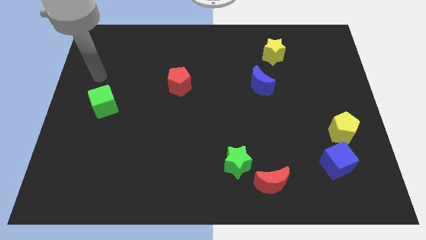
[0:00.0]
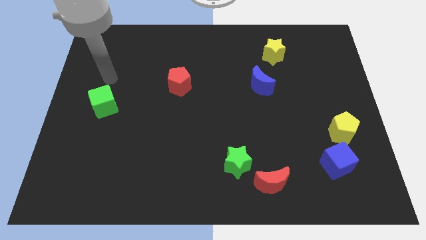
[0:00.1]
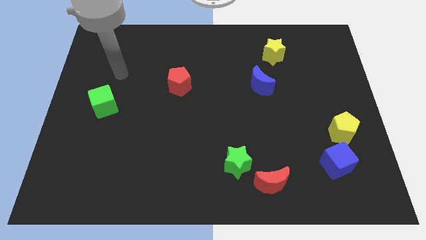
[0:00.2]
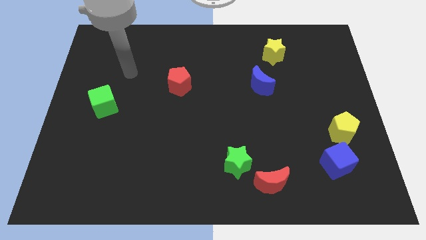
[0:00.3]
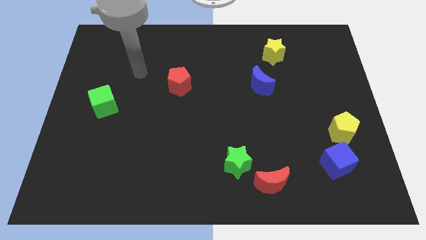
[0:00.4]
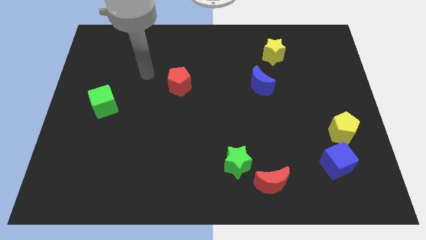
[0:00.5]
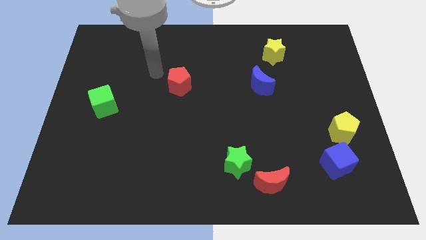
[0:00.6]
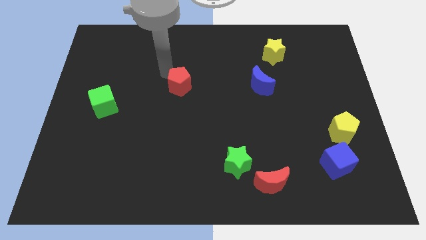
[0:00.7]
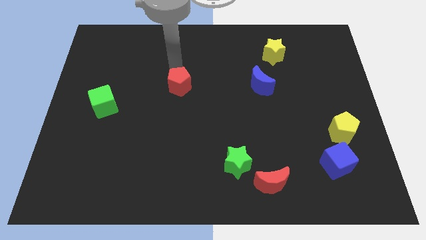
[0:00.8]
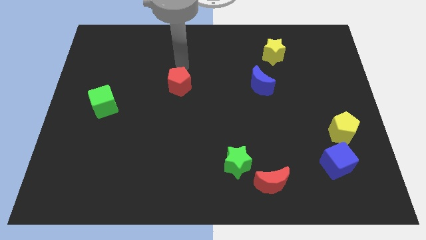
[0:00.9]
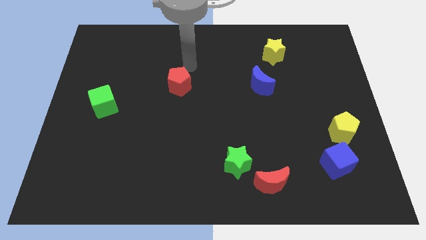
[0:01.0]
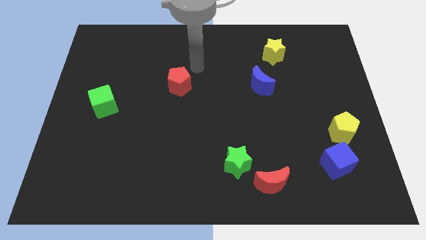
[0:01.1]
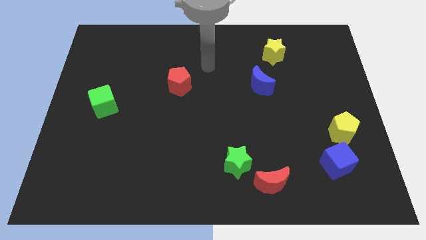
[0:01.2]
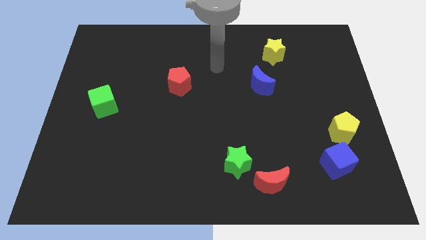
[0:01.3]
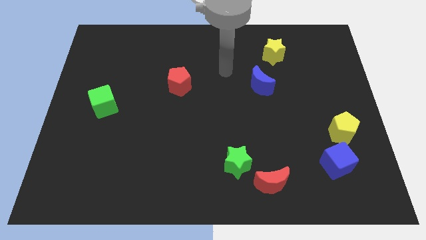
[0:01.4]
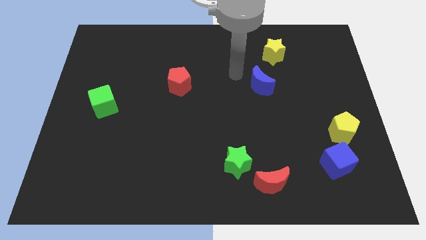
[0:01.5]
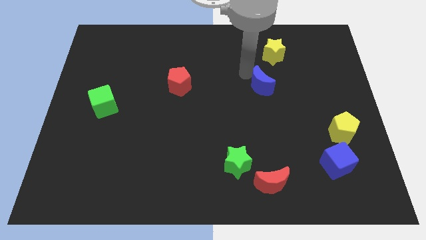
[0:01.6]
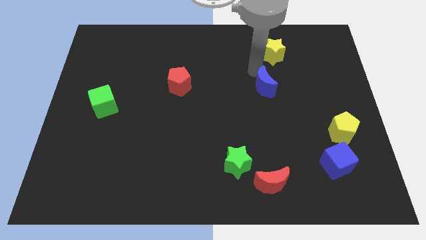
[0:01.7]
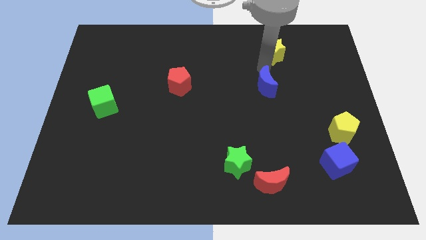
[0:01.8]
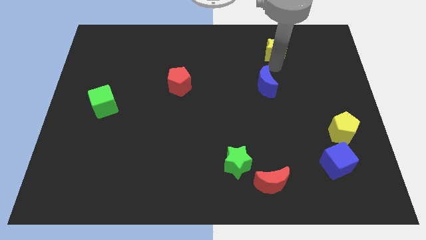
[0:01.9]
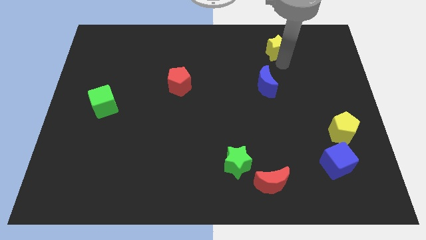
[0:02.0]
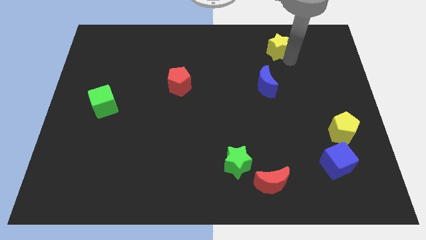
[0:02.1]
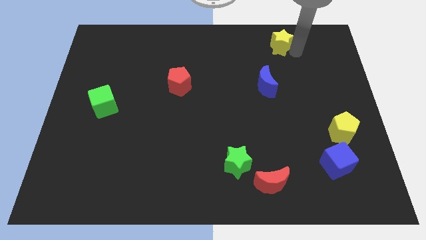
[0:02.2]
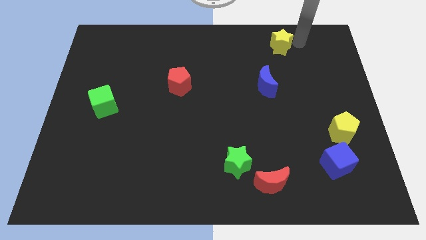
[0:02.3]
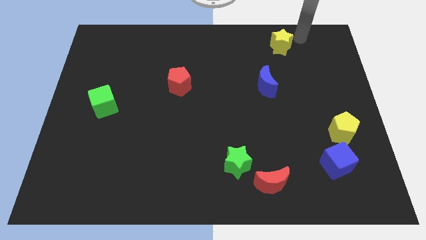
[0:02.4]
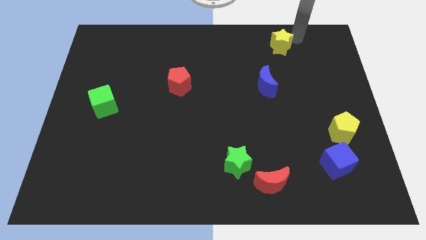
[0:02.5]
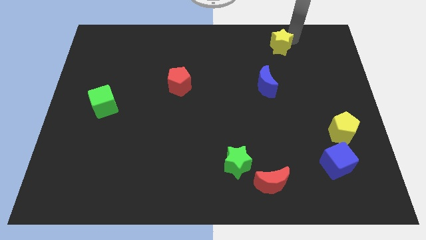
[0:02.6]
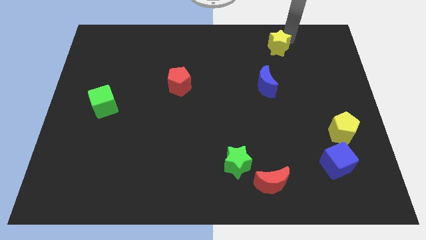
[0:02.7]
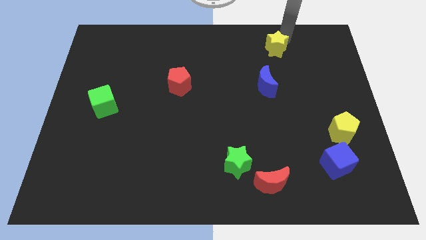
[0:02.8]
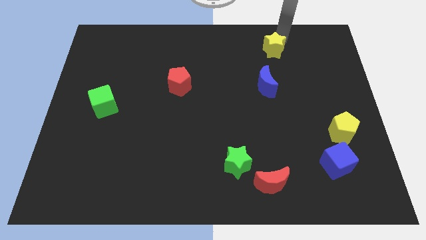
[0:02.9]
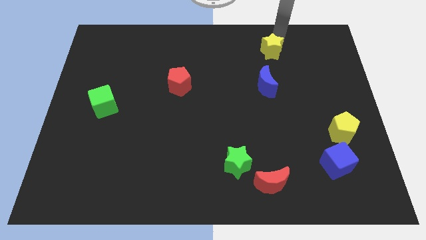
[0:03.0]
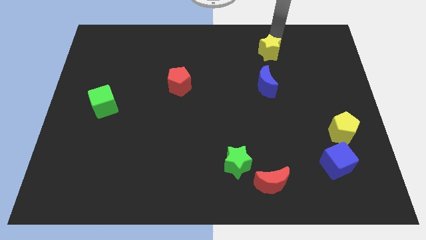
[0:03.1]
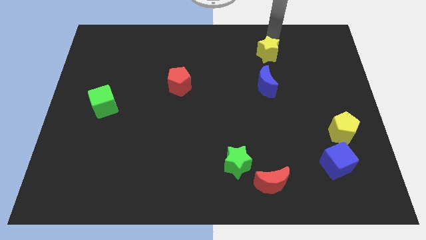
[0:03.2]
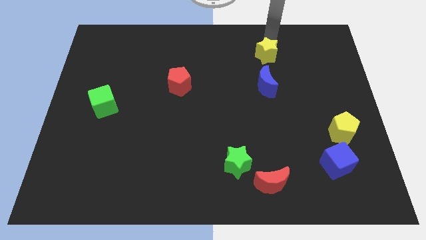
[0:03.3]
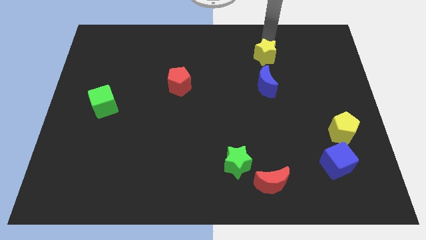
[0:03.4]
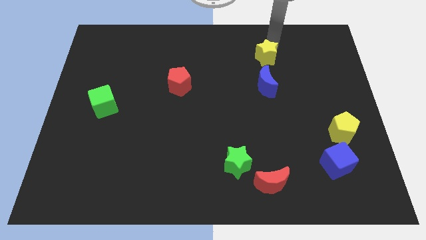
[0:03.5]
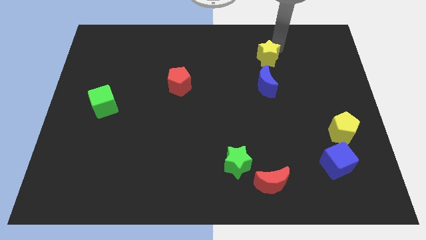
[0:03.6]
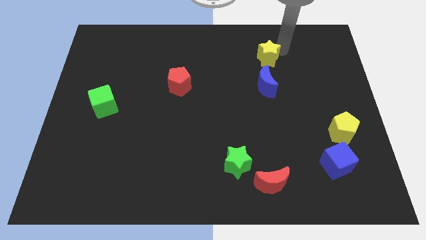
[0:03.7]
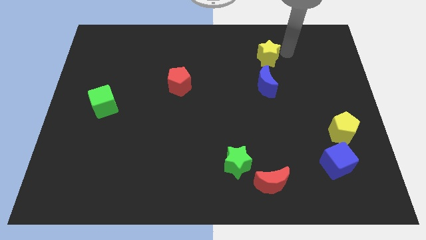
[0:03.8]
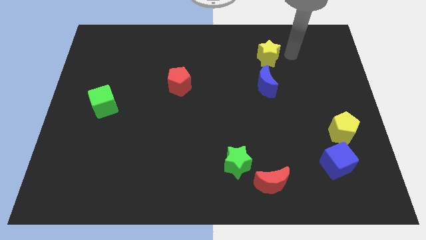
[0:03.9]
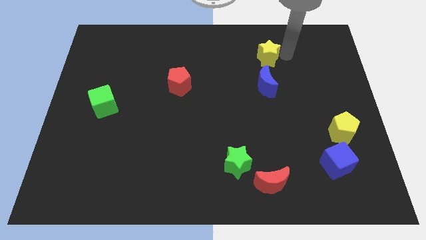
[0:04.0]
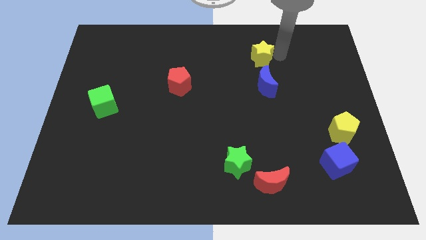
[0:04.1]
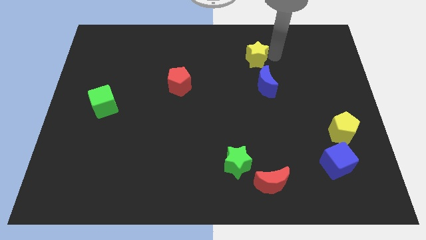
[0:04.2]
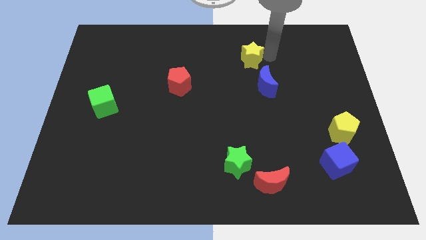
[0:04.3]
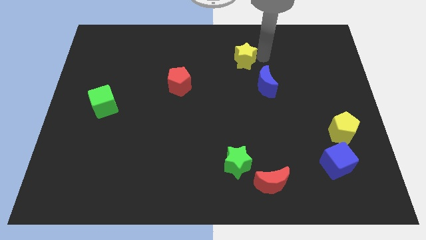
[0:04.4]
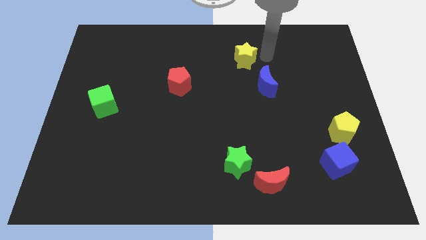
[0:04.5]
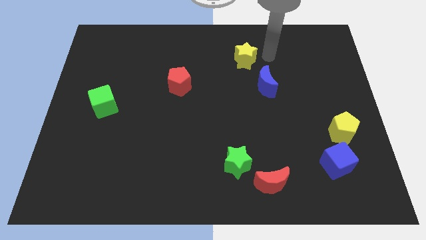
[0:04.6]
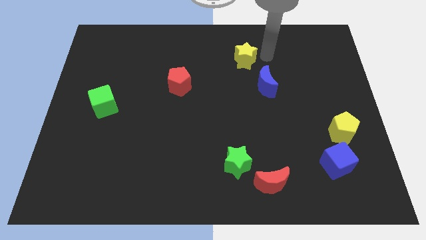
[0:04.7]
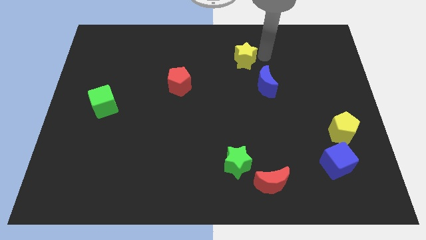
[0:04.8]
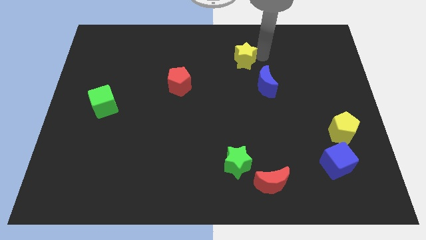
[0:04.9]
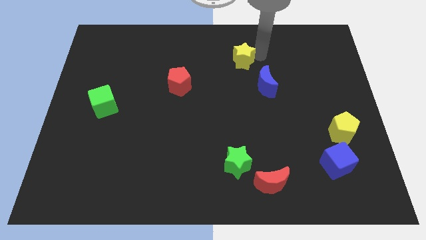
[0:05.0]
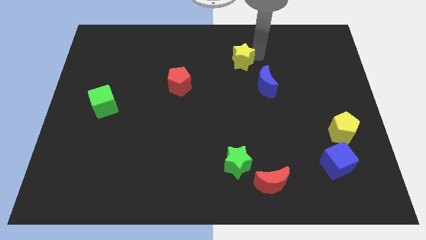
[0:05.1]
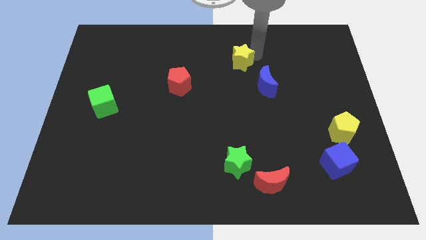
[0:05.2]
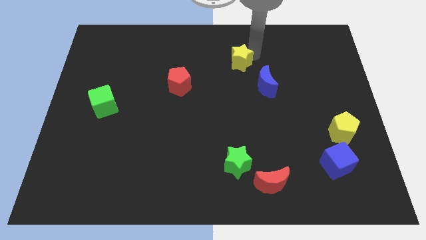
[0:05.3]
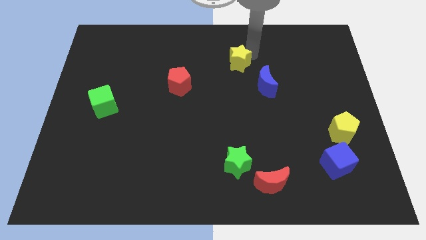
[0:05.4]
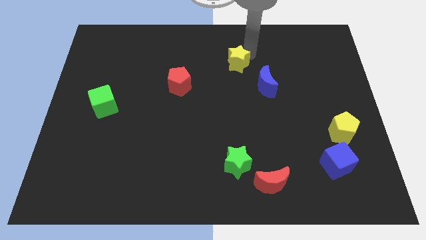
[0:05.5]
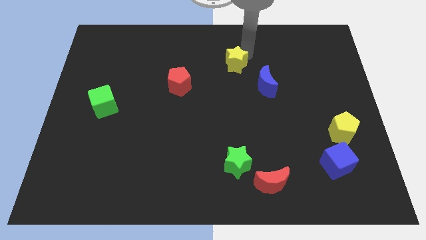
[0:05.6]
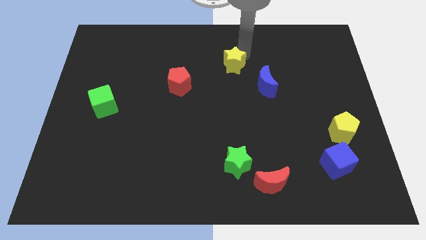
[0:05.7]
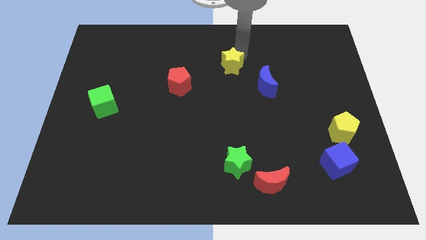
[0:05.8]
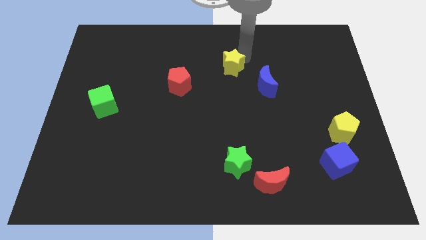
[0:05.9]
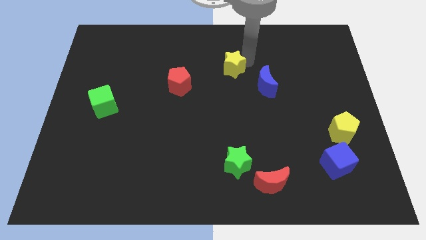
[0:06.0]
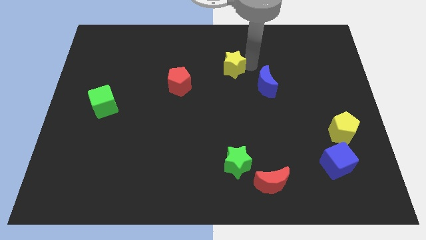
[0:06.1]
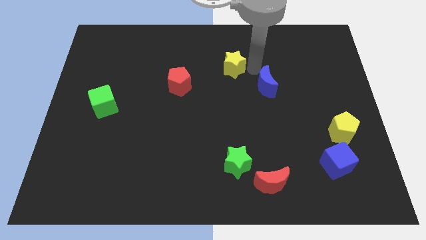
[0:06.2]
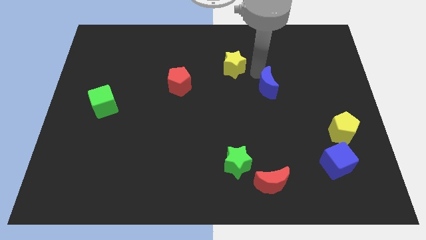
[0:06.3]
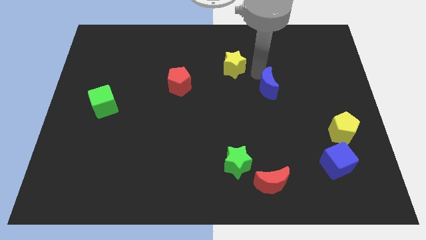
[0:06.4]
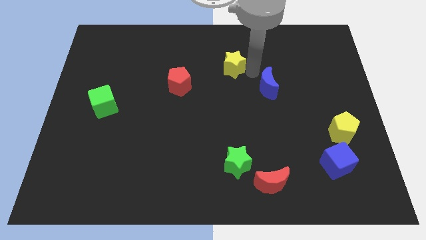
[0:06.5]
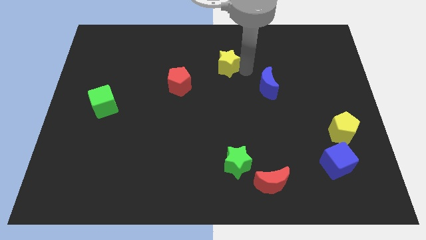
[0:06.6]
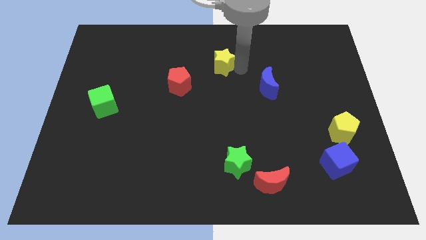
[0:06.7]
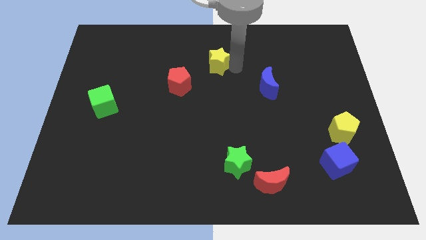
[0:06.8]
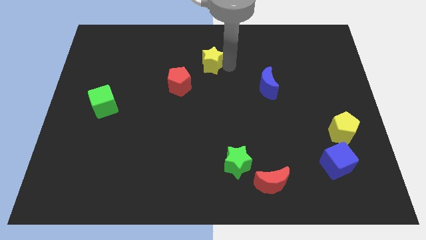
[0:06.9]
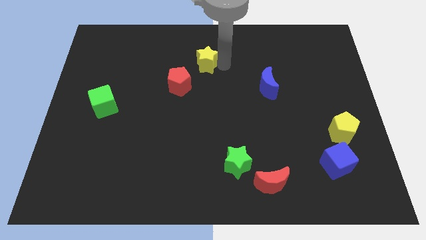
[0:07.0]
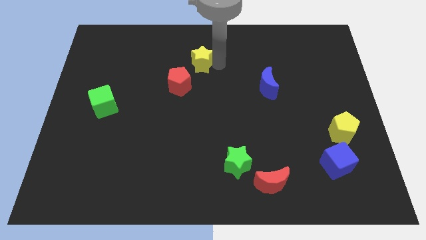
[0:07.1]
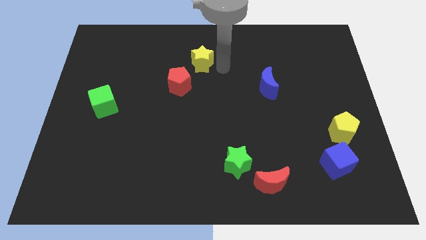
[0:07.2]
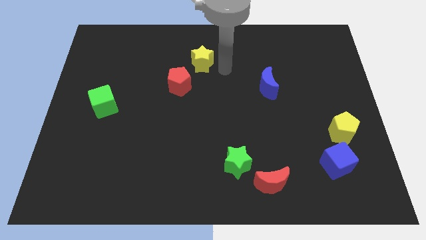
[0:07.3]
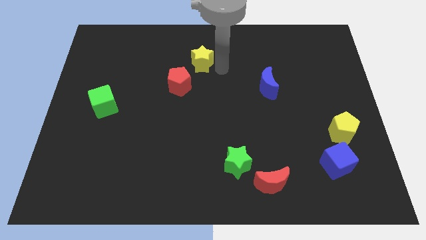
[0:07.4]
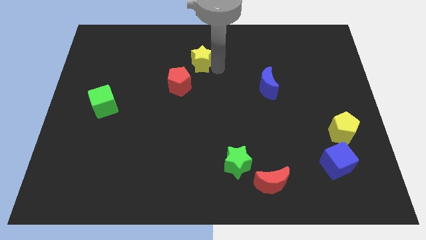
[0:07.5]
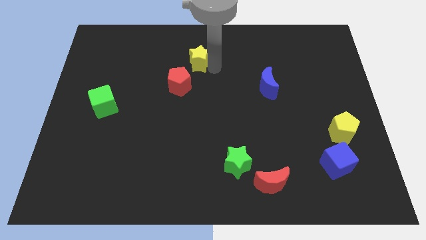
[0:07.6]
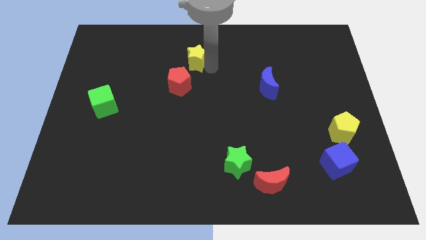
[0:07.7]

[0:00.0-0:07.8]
push the yellow star to the left

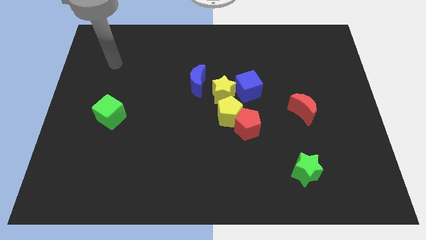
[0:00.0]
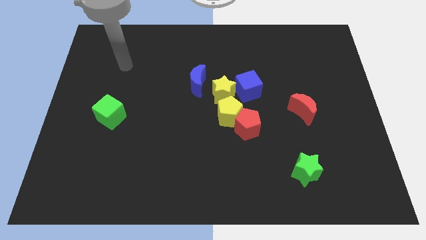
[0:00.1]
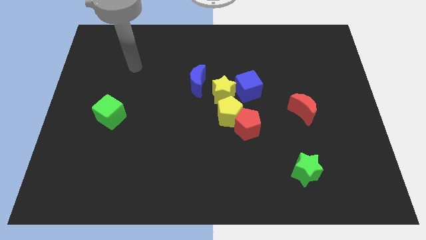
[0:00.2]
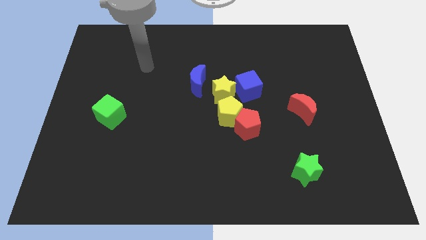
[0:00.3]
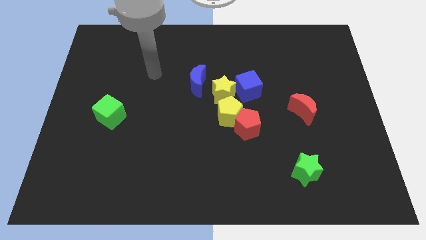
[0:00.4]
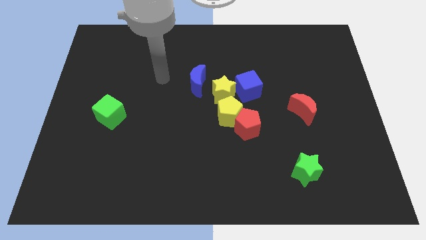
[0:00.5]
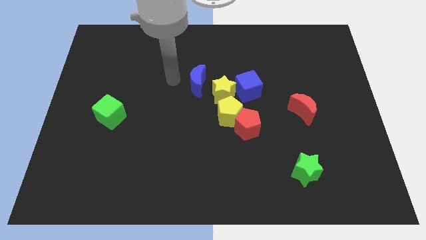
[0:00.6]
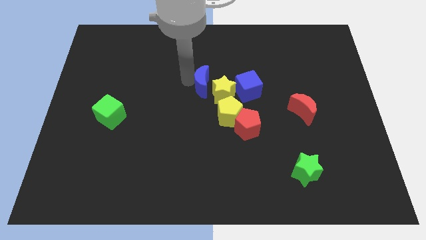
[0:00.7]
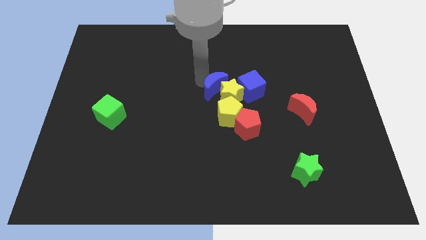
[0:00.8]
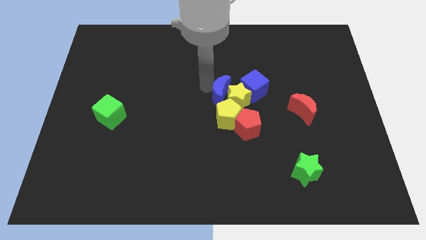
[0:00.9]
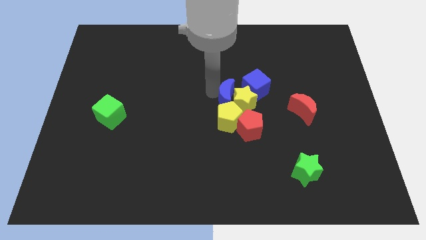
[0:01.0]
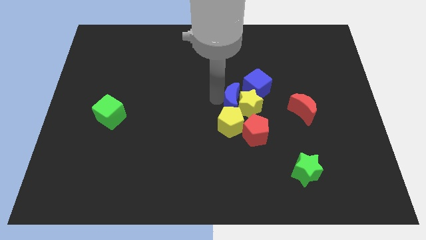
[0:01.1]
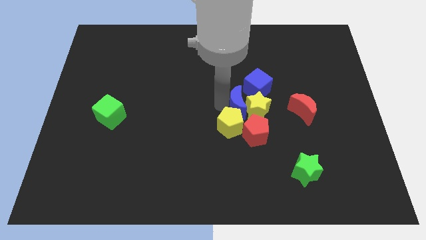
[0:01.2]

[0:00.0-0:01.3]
slightly move the yellow star right
